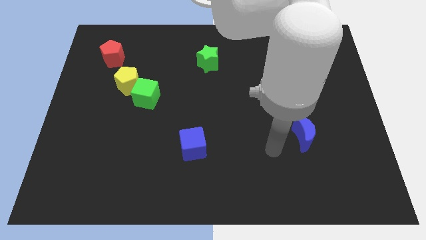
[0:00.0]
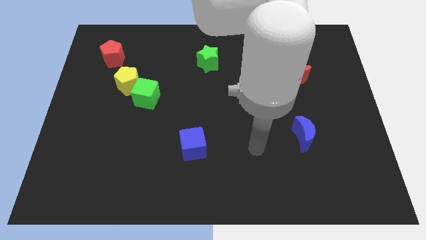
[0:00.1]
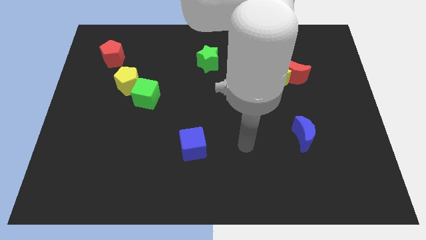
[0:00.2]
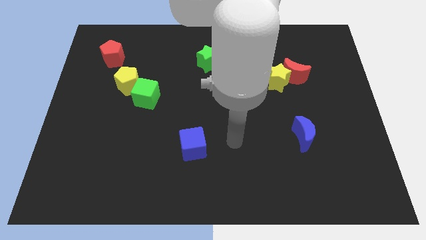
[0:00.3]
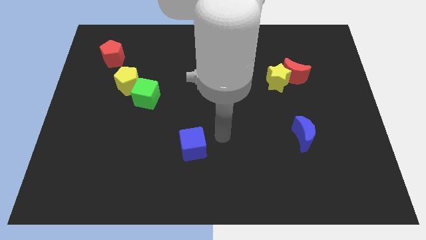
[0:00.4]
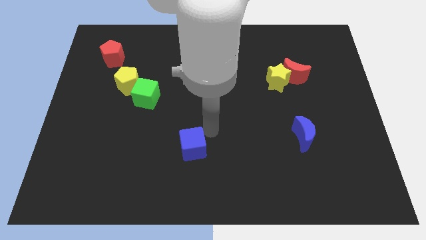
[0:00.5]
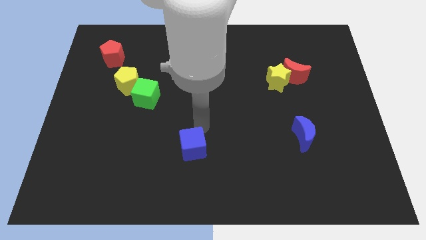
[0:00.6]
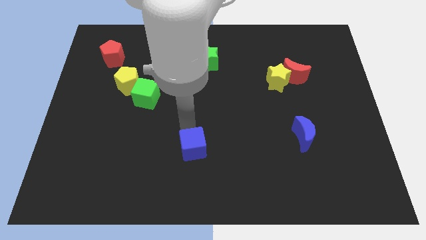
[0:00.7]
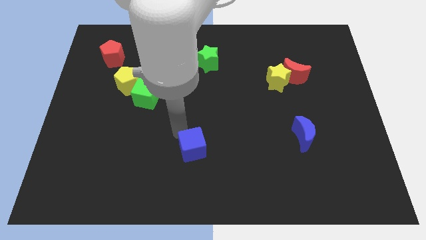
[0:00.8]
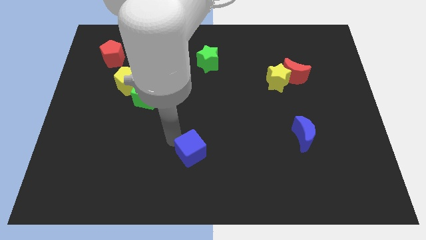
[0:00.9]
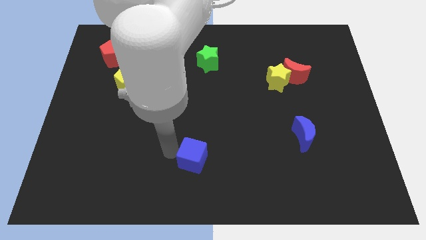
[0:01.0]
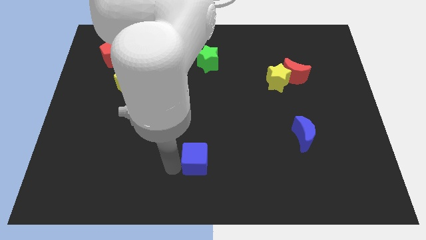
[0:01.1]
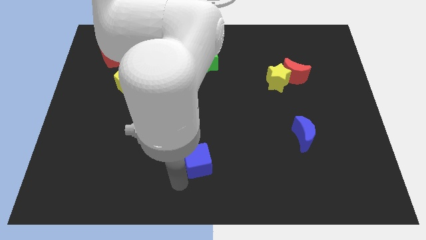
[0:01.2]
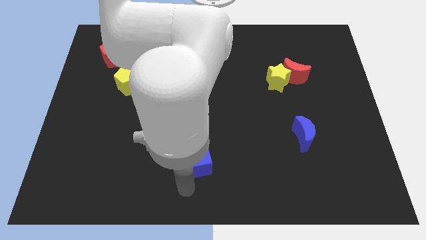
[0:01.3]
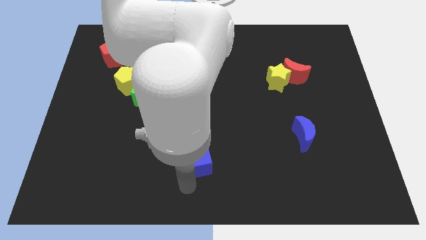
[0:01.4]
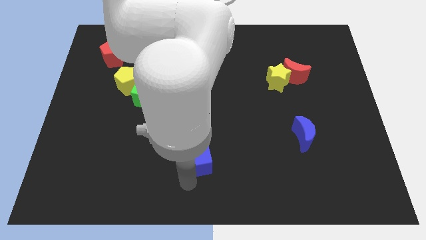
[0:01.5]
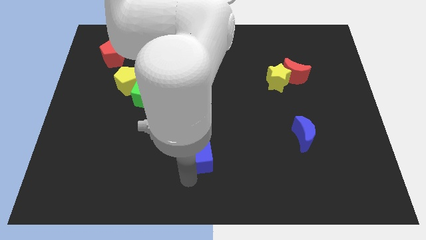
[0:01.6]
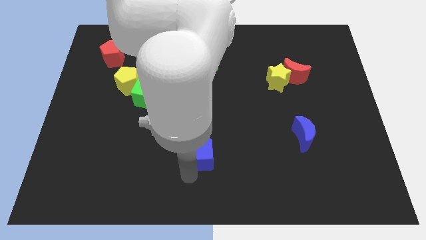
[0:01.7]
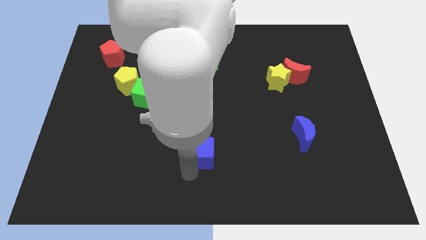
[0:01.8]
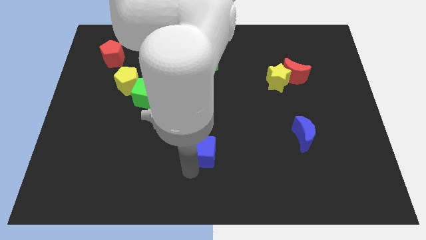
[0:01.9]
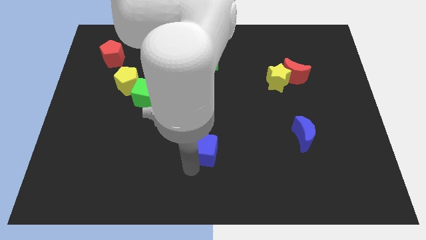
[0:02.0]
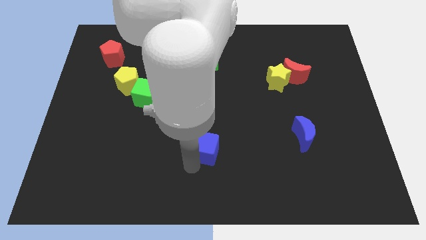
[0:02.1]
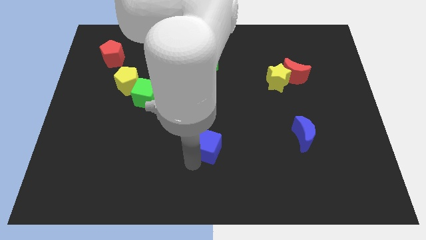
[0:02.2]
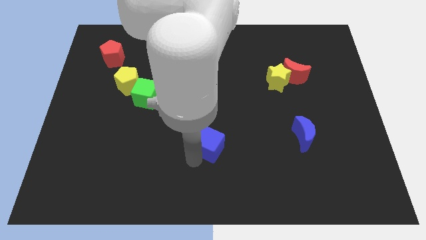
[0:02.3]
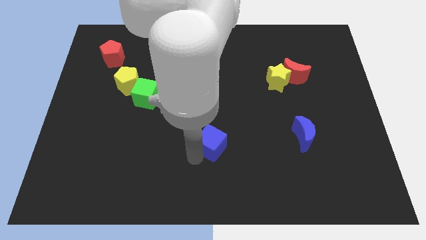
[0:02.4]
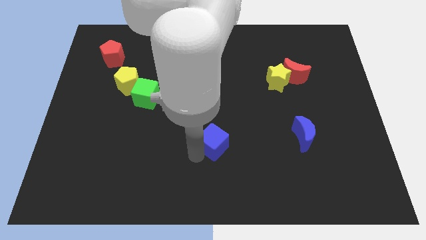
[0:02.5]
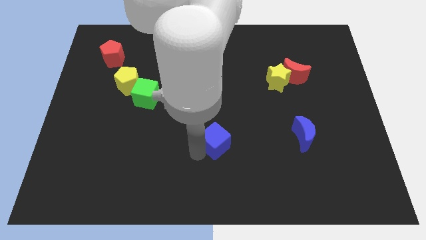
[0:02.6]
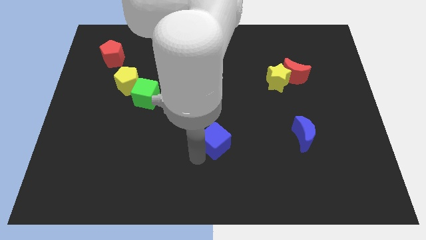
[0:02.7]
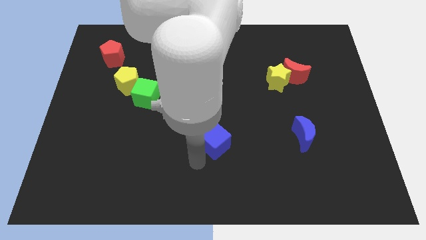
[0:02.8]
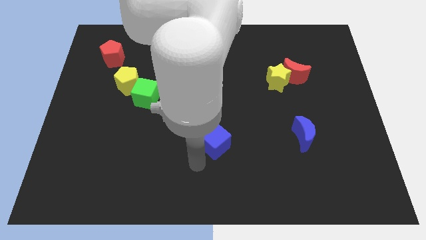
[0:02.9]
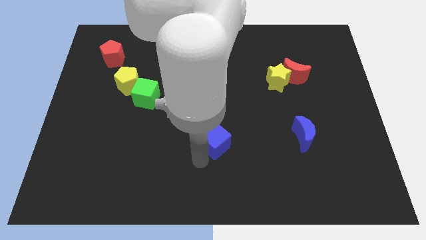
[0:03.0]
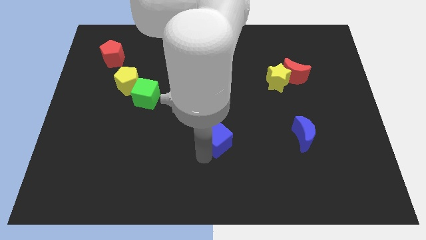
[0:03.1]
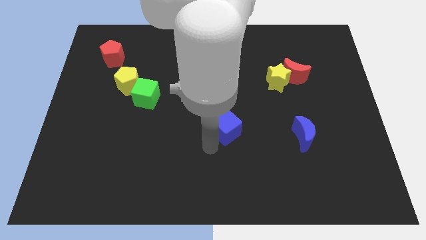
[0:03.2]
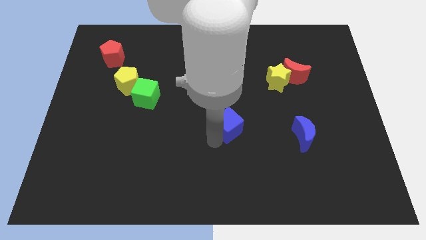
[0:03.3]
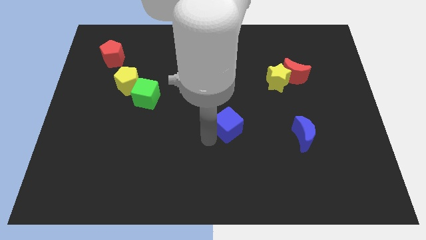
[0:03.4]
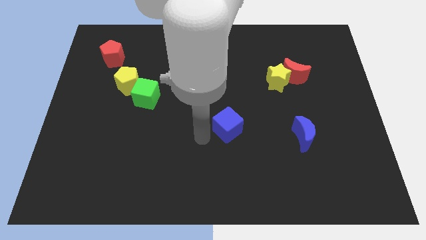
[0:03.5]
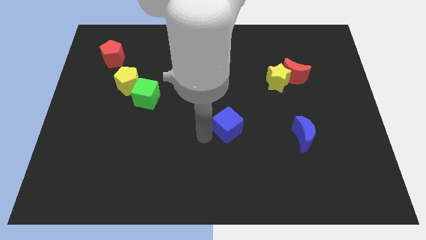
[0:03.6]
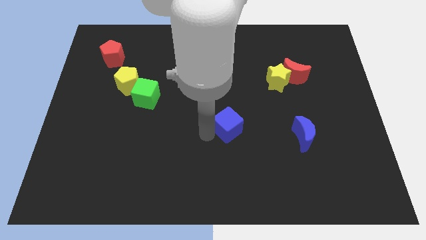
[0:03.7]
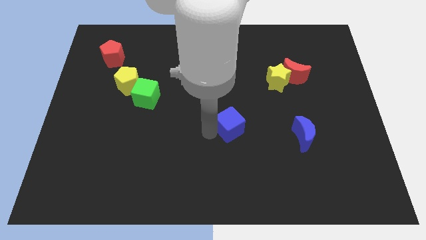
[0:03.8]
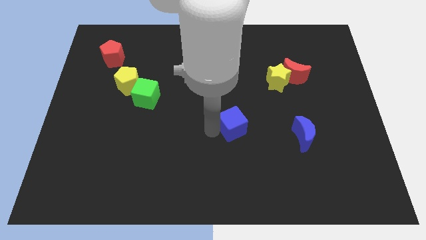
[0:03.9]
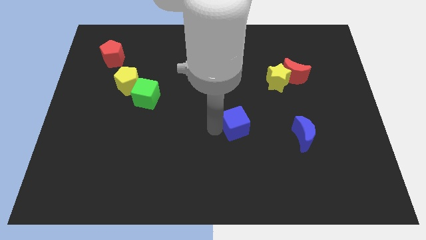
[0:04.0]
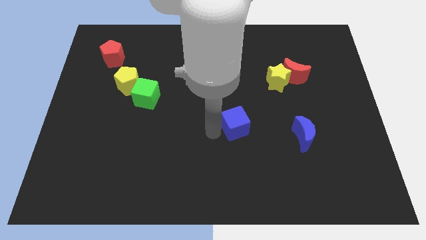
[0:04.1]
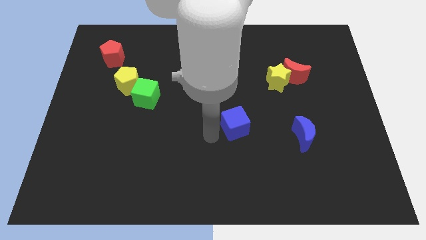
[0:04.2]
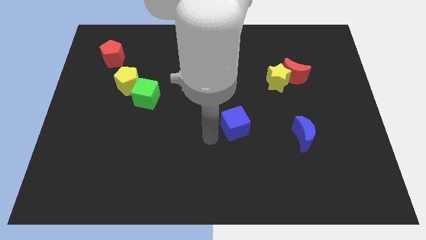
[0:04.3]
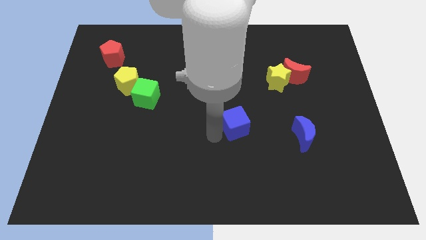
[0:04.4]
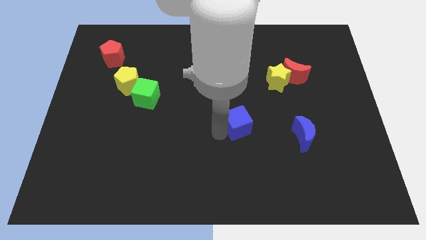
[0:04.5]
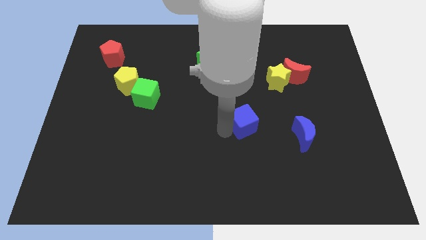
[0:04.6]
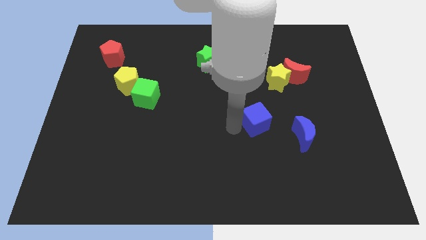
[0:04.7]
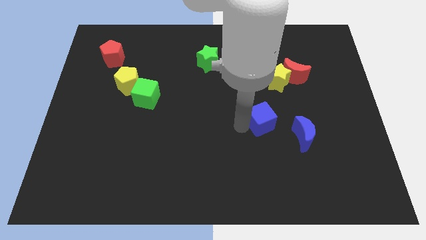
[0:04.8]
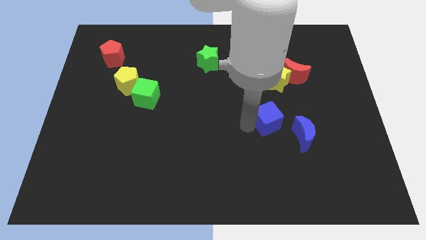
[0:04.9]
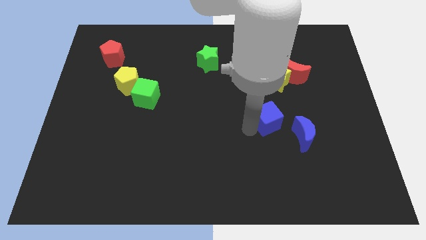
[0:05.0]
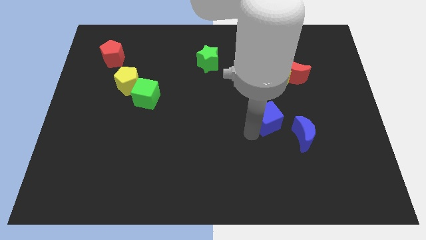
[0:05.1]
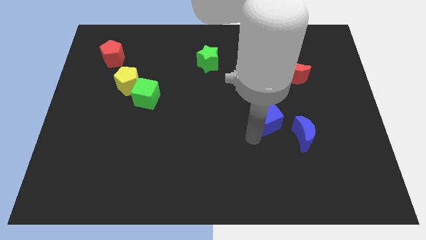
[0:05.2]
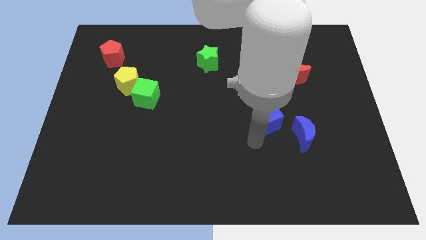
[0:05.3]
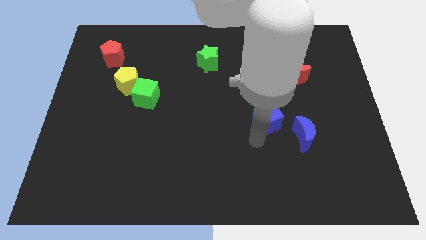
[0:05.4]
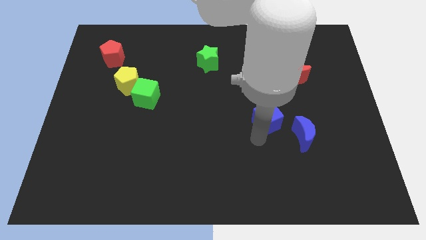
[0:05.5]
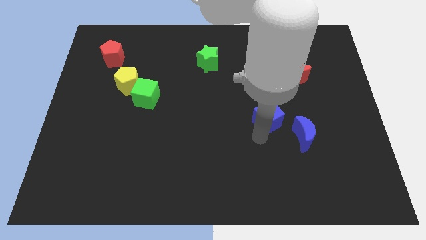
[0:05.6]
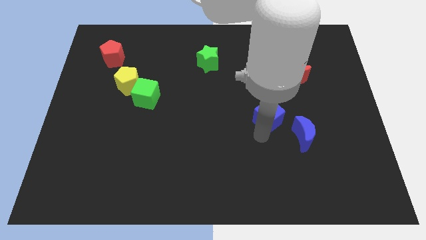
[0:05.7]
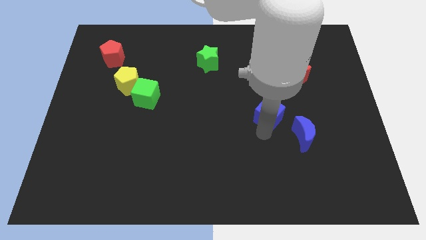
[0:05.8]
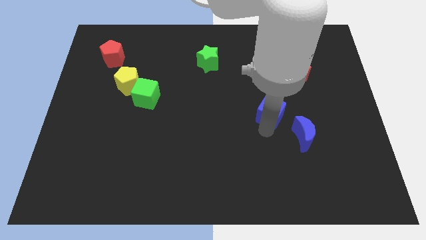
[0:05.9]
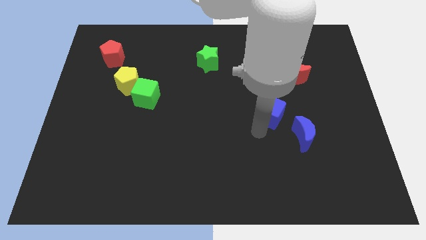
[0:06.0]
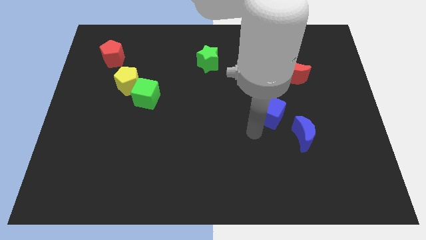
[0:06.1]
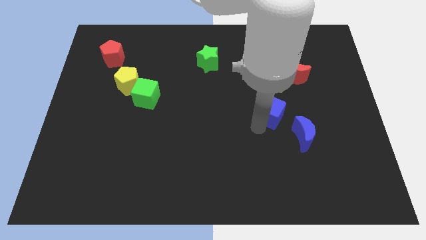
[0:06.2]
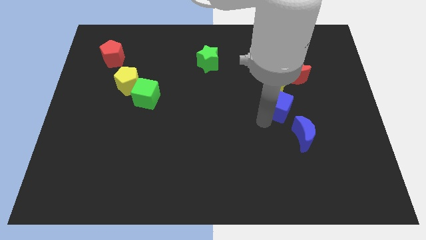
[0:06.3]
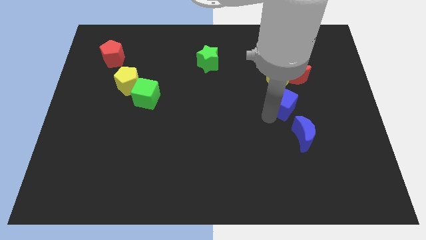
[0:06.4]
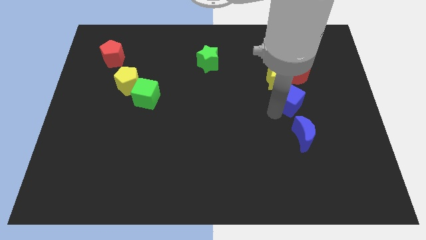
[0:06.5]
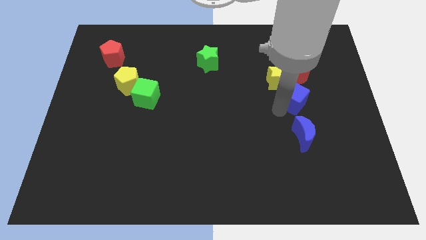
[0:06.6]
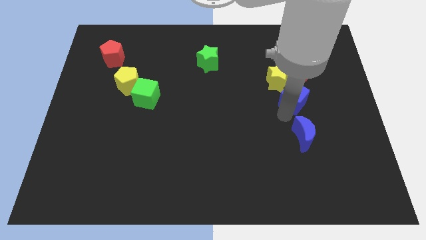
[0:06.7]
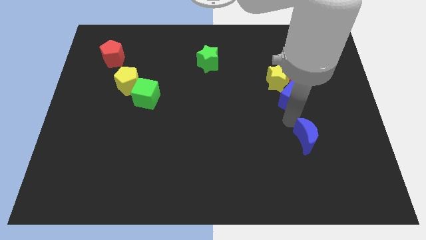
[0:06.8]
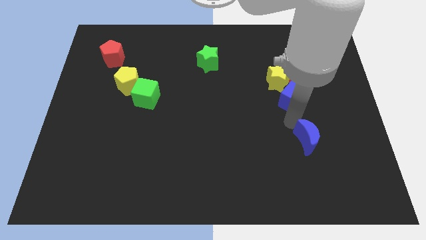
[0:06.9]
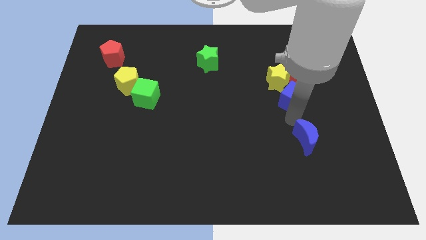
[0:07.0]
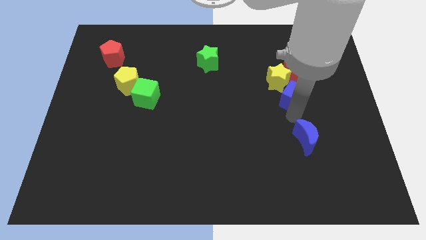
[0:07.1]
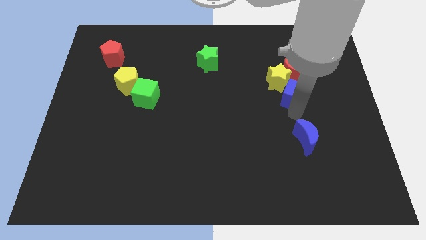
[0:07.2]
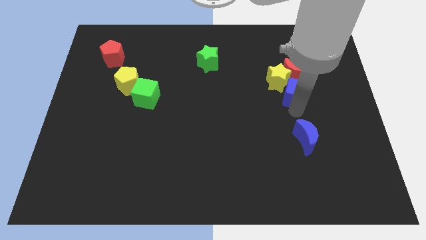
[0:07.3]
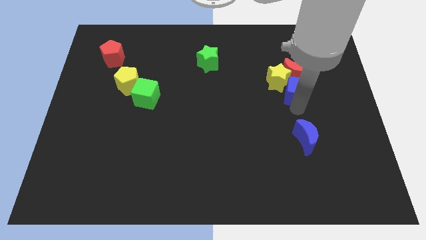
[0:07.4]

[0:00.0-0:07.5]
push the blue cube next to the red moon
